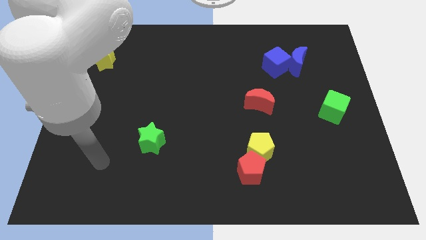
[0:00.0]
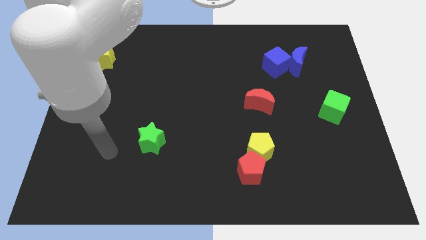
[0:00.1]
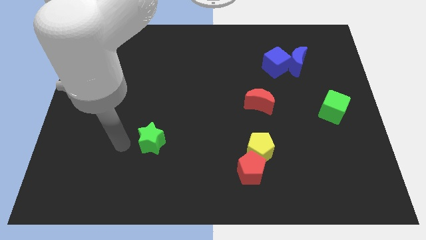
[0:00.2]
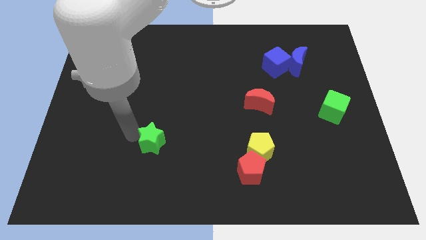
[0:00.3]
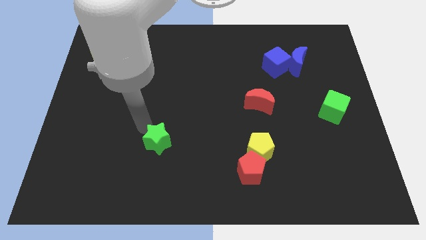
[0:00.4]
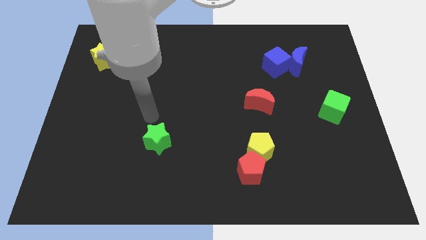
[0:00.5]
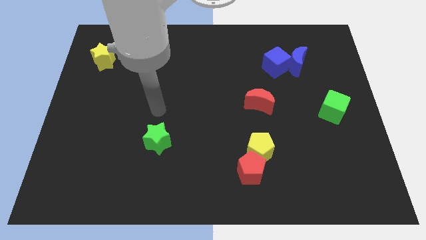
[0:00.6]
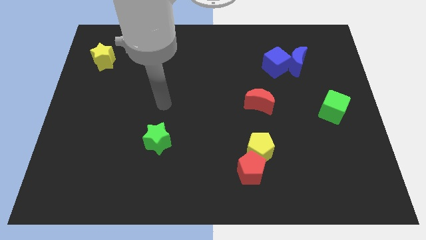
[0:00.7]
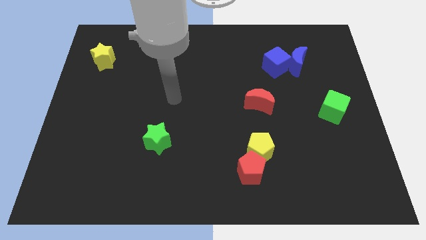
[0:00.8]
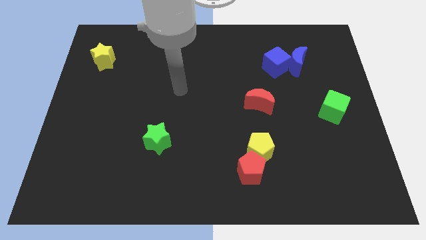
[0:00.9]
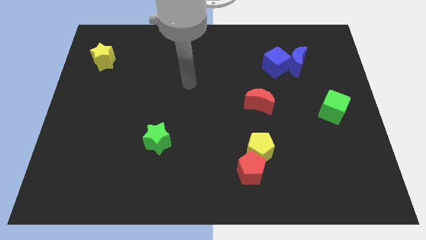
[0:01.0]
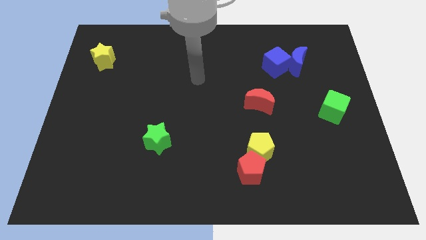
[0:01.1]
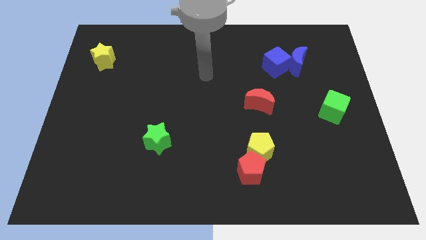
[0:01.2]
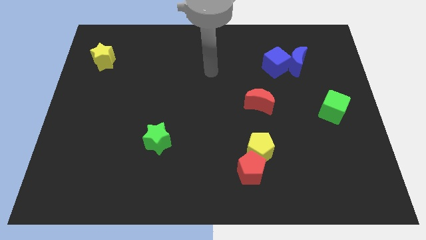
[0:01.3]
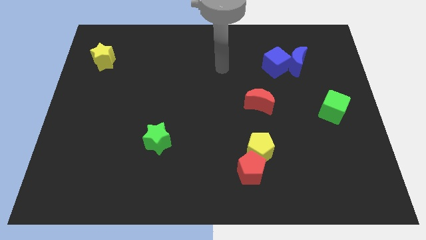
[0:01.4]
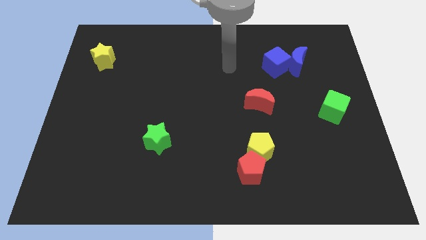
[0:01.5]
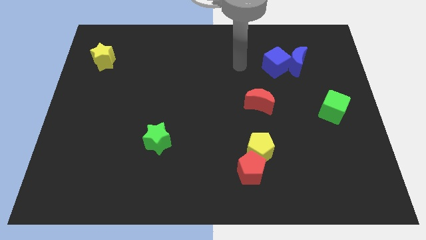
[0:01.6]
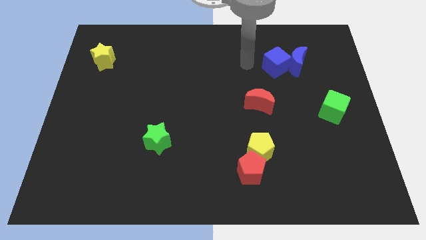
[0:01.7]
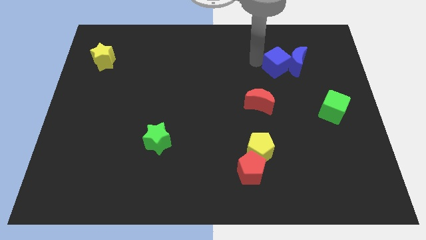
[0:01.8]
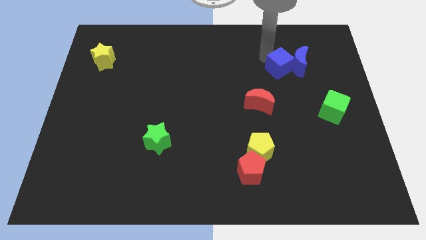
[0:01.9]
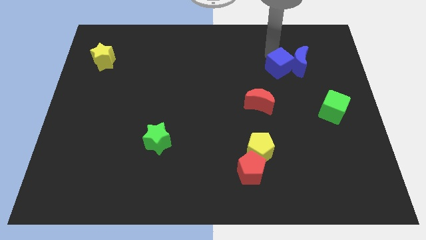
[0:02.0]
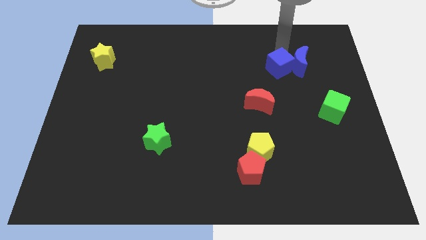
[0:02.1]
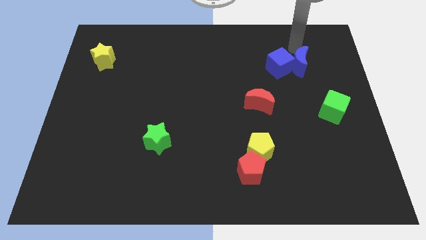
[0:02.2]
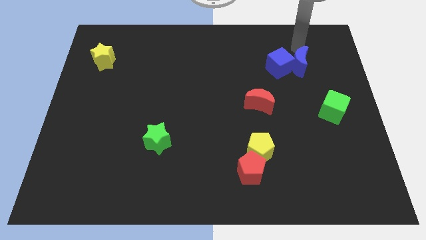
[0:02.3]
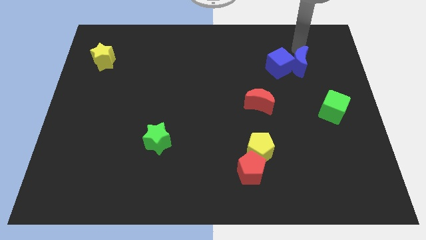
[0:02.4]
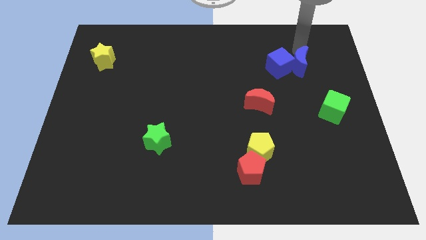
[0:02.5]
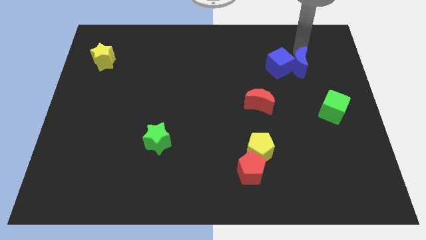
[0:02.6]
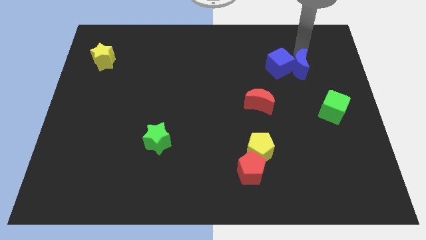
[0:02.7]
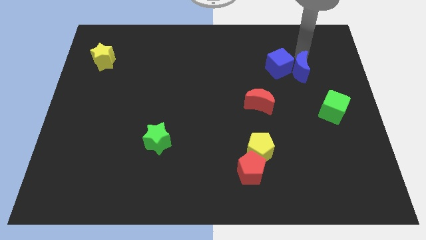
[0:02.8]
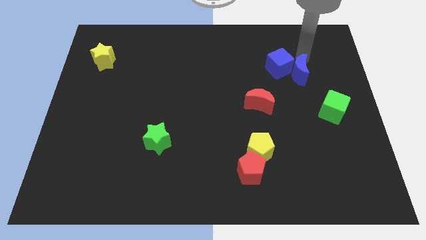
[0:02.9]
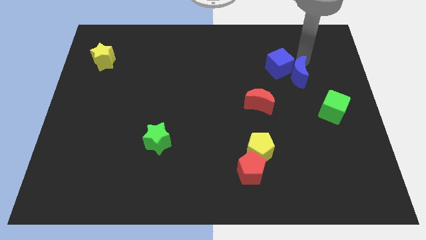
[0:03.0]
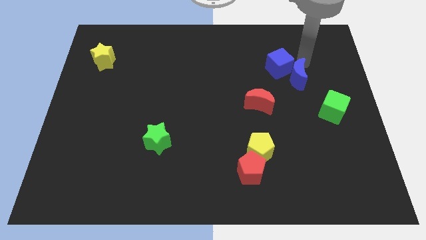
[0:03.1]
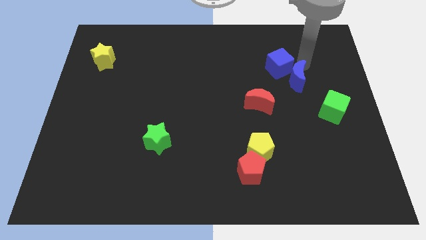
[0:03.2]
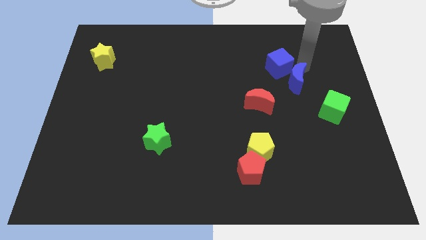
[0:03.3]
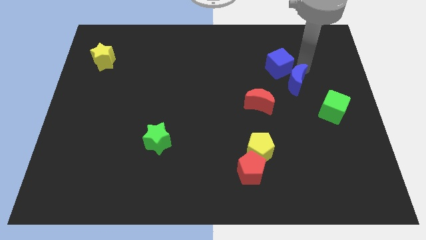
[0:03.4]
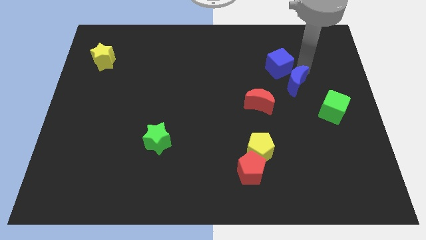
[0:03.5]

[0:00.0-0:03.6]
slide the blue moon down slightly

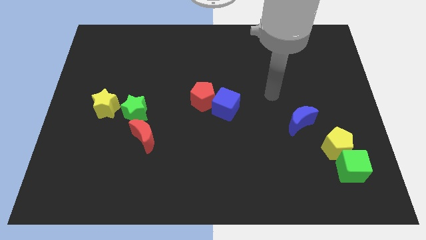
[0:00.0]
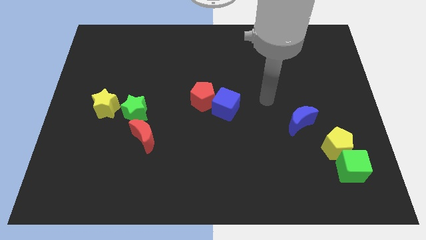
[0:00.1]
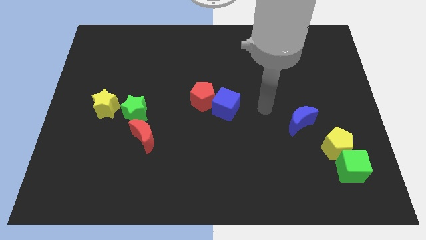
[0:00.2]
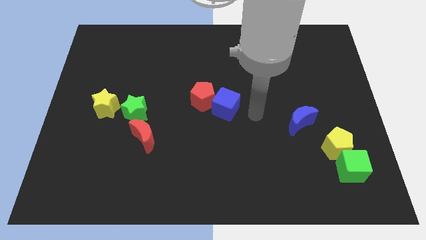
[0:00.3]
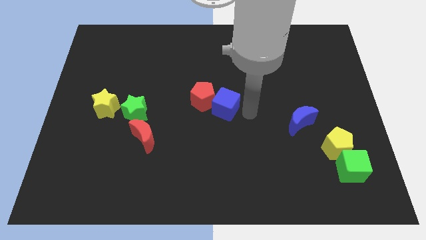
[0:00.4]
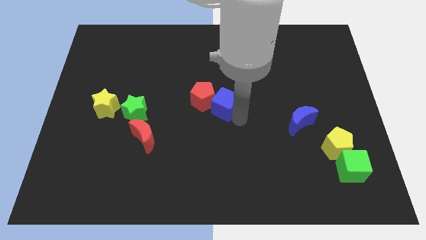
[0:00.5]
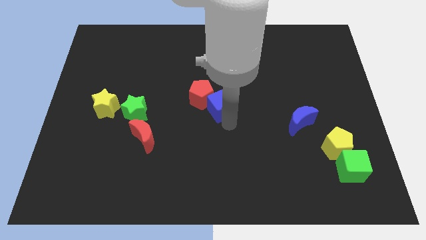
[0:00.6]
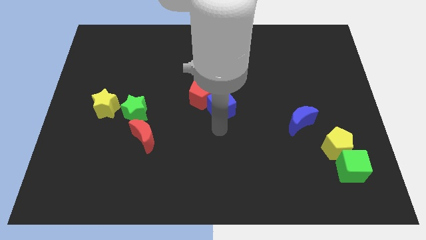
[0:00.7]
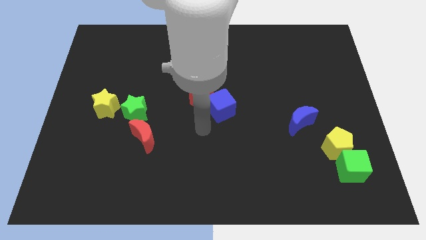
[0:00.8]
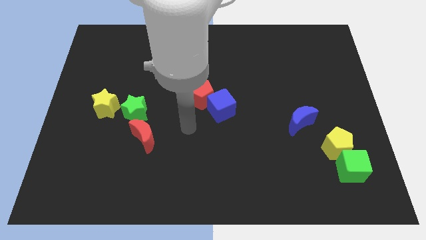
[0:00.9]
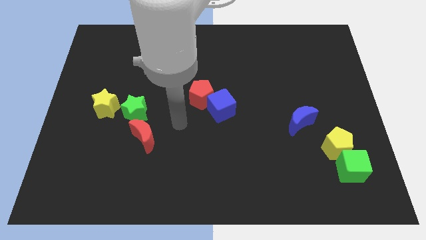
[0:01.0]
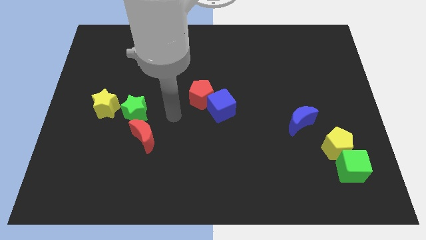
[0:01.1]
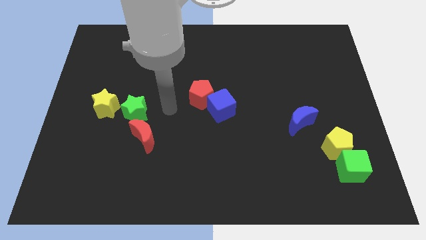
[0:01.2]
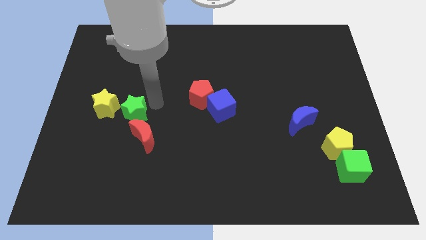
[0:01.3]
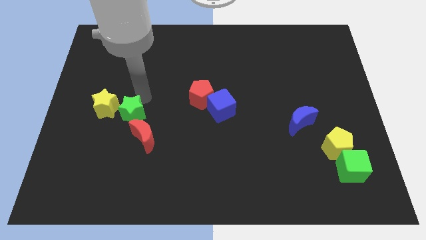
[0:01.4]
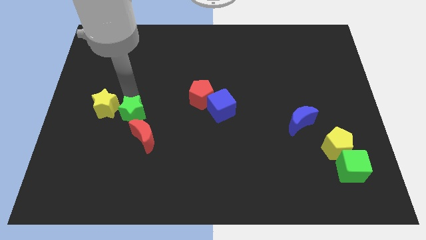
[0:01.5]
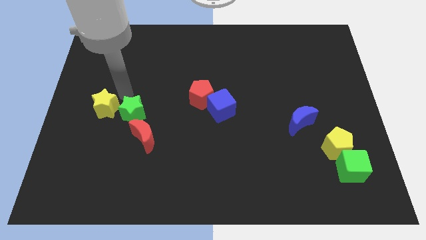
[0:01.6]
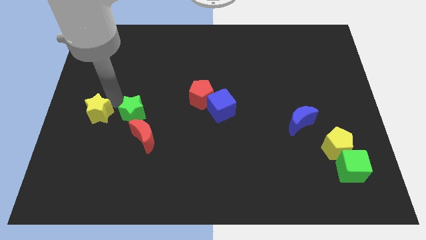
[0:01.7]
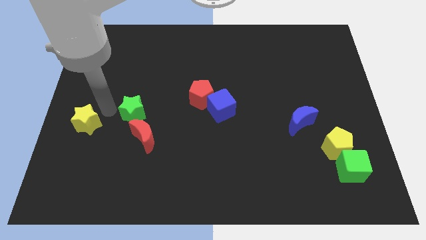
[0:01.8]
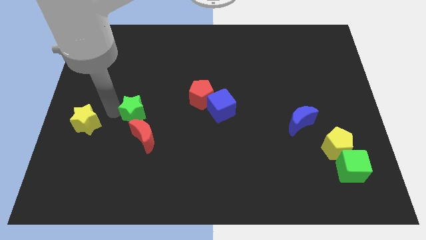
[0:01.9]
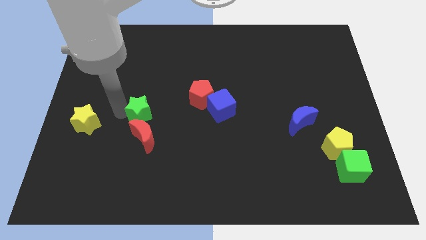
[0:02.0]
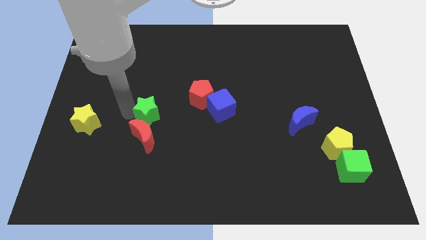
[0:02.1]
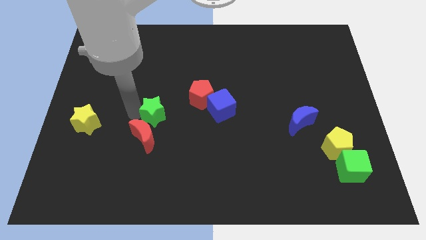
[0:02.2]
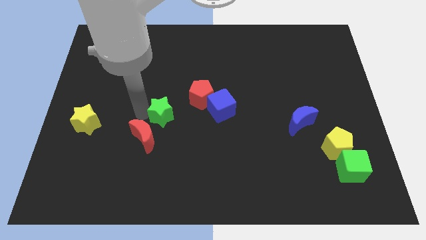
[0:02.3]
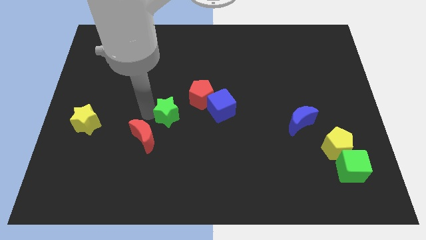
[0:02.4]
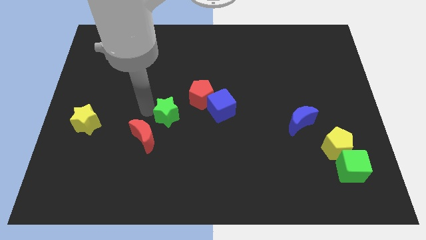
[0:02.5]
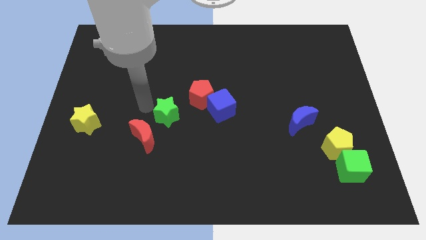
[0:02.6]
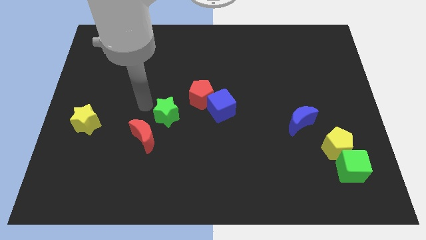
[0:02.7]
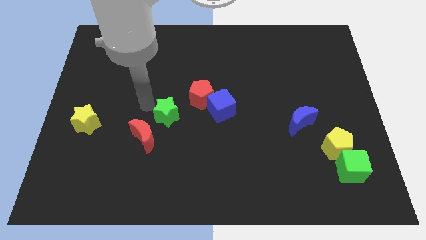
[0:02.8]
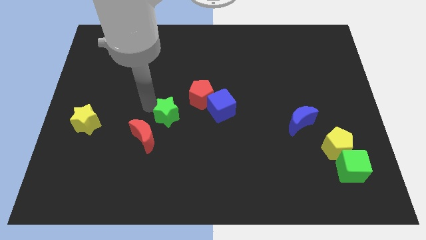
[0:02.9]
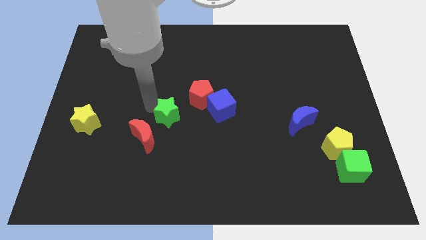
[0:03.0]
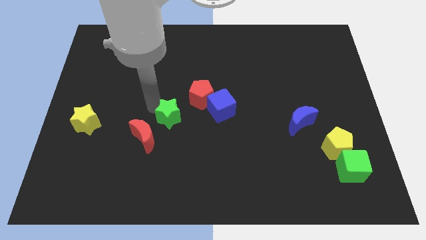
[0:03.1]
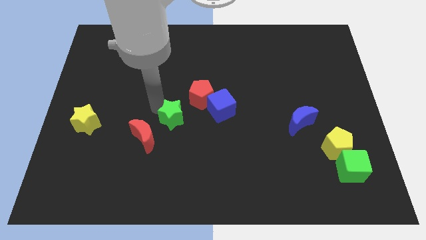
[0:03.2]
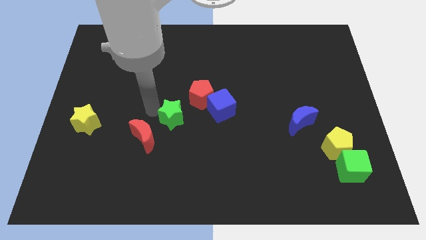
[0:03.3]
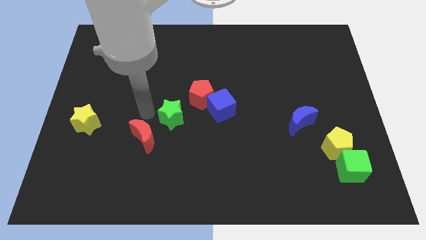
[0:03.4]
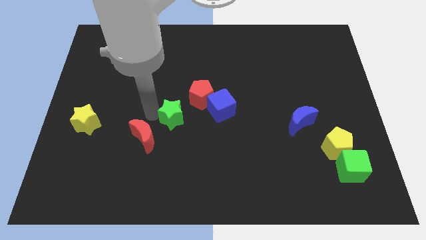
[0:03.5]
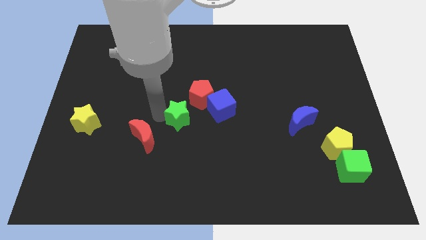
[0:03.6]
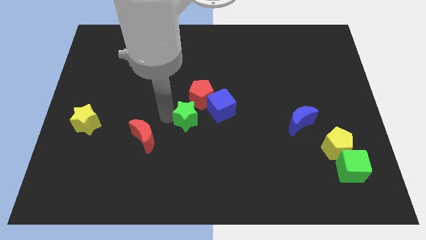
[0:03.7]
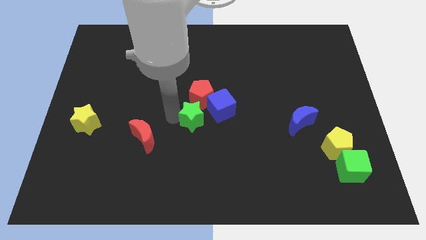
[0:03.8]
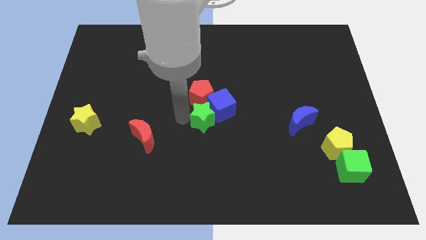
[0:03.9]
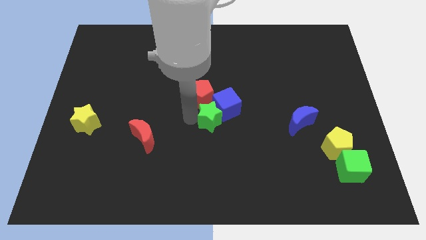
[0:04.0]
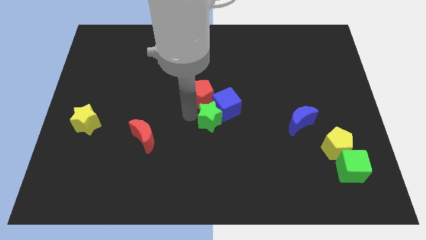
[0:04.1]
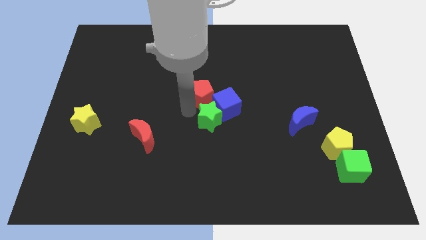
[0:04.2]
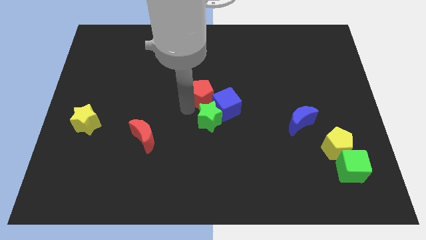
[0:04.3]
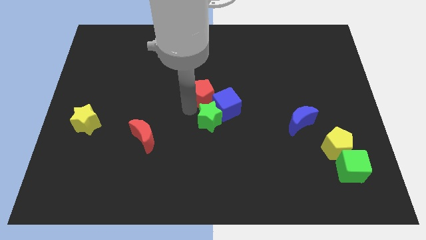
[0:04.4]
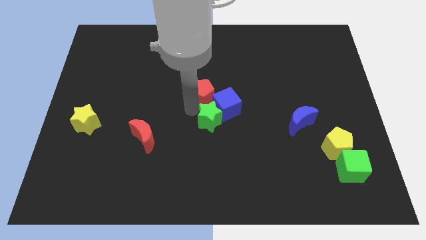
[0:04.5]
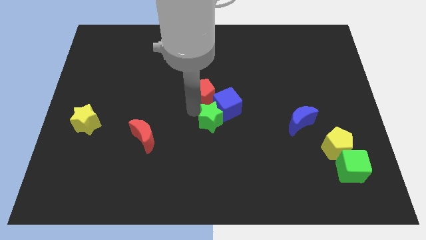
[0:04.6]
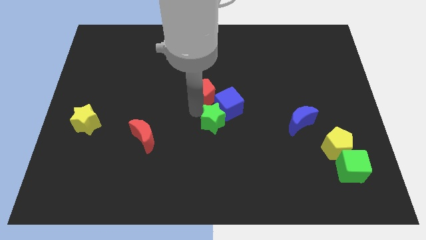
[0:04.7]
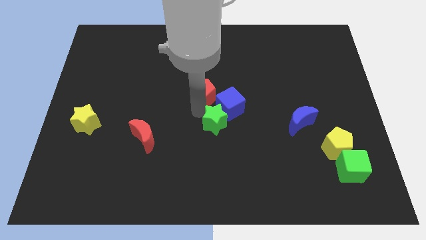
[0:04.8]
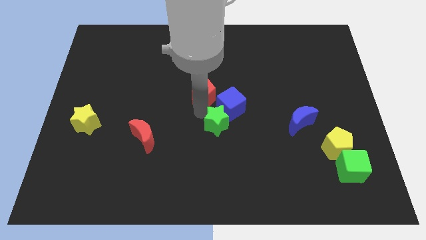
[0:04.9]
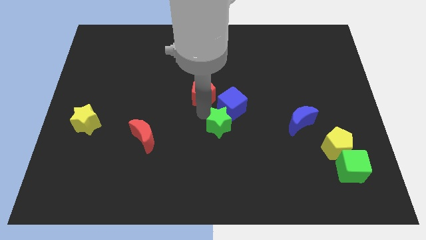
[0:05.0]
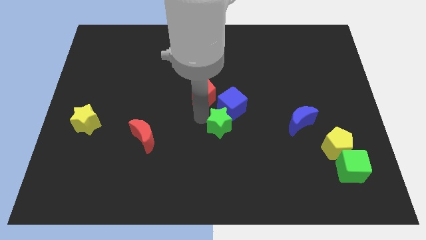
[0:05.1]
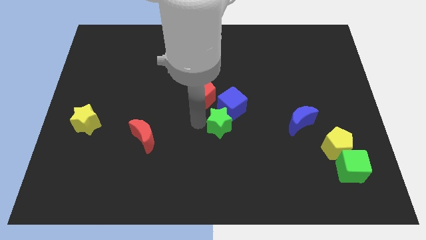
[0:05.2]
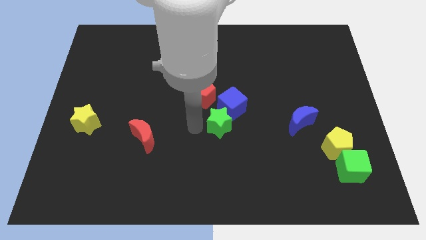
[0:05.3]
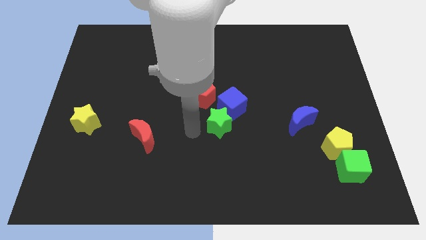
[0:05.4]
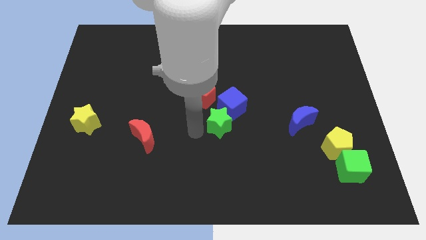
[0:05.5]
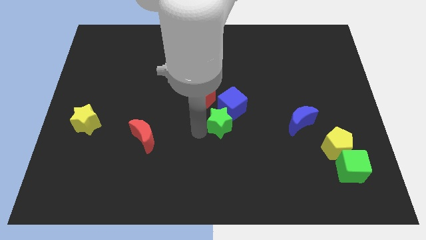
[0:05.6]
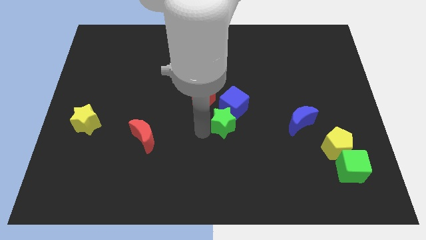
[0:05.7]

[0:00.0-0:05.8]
move the green star to the right
